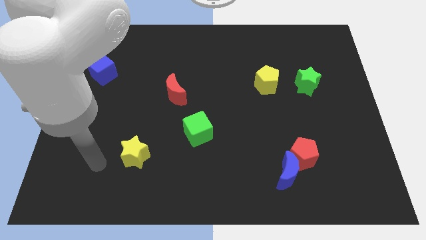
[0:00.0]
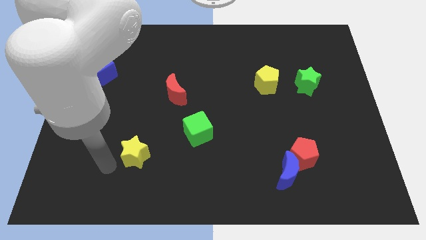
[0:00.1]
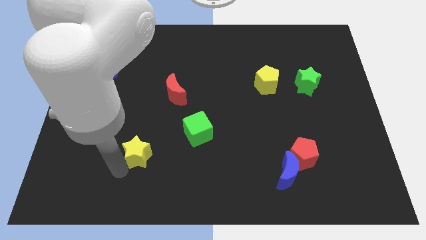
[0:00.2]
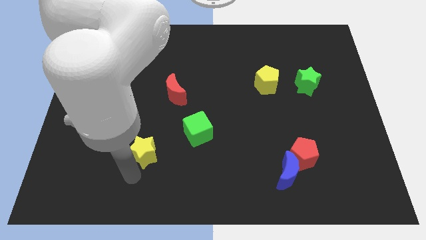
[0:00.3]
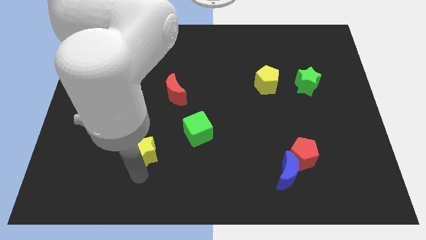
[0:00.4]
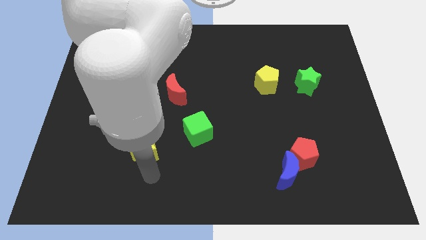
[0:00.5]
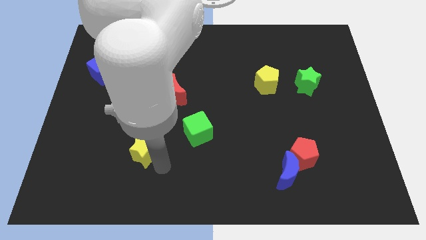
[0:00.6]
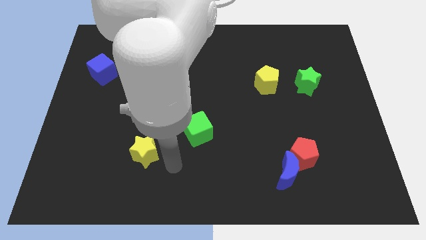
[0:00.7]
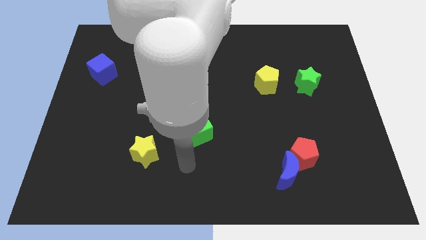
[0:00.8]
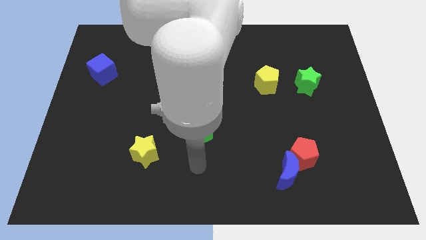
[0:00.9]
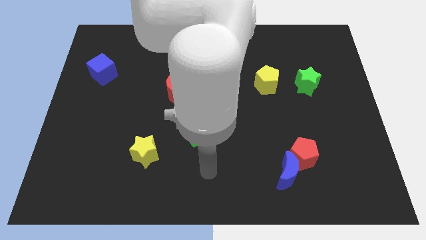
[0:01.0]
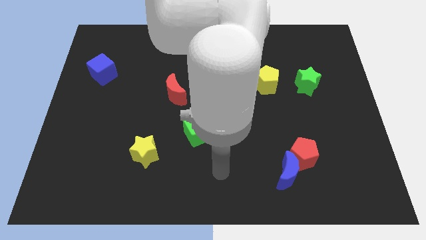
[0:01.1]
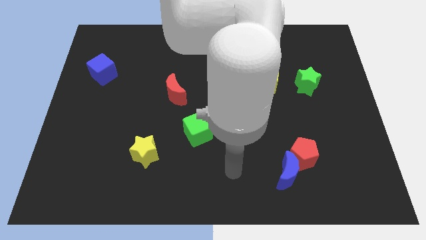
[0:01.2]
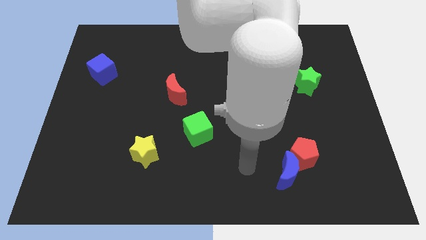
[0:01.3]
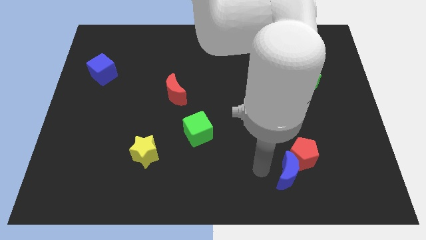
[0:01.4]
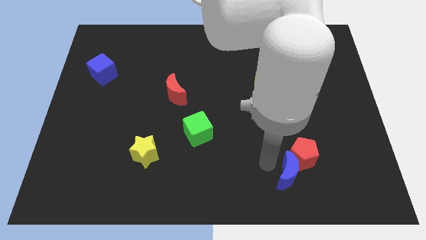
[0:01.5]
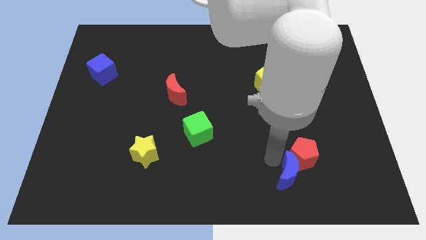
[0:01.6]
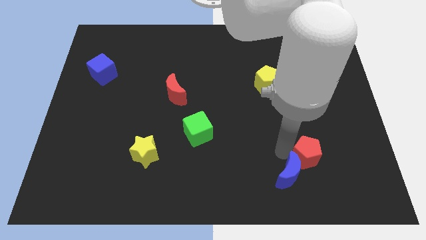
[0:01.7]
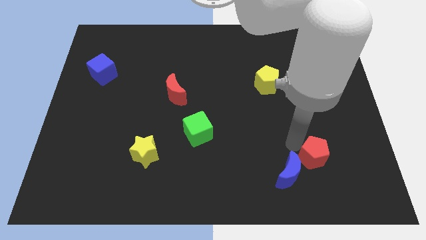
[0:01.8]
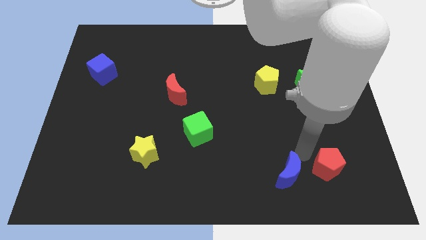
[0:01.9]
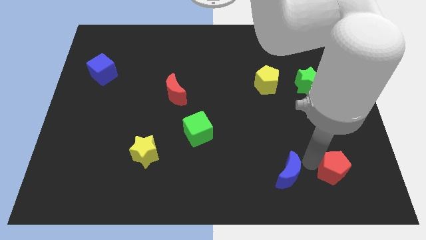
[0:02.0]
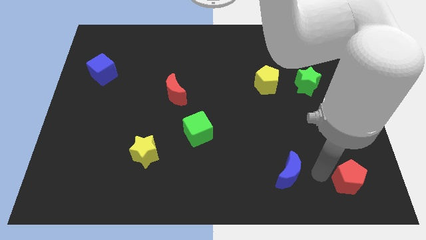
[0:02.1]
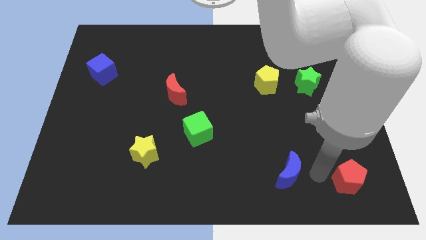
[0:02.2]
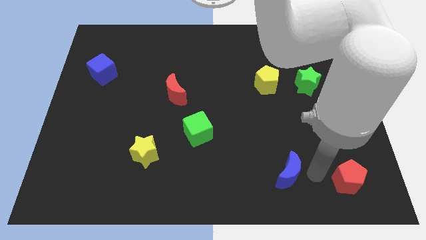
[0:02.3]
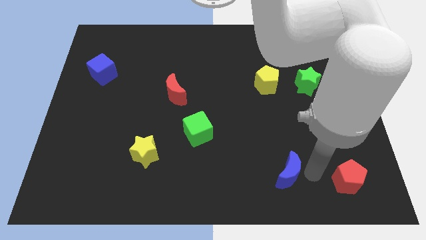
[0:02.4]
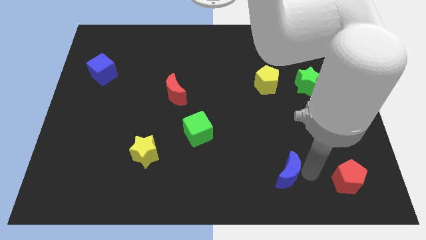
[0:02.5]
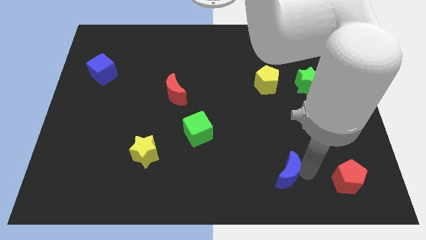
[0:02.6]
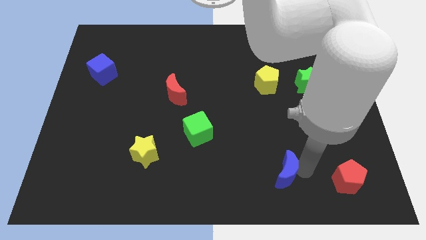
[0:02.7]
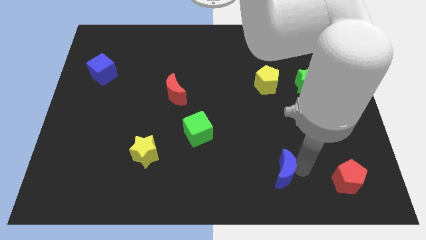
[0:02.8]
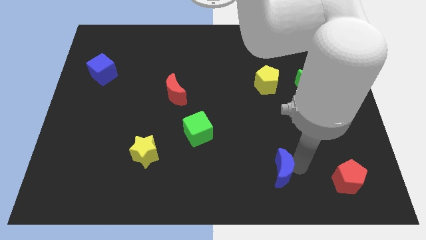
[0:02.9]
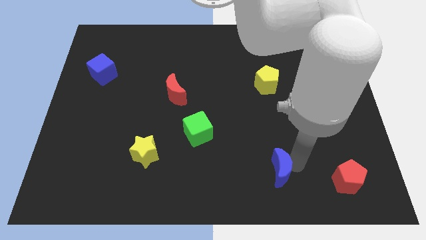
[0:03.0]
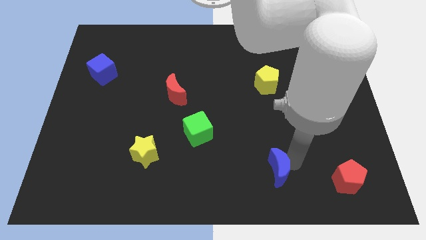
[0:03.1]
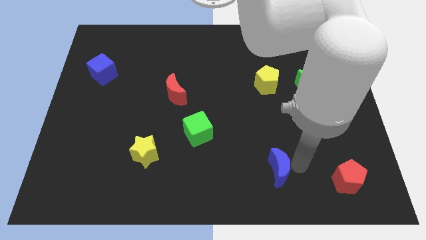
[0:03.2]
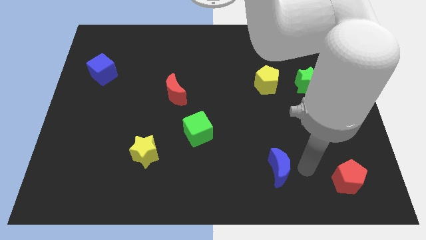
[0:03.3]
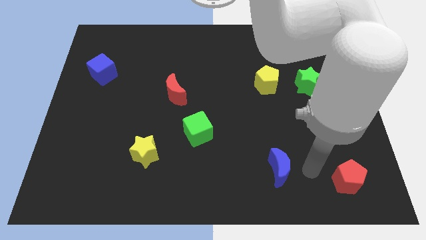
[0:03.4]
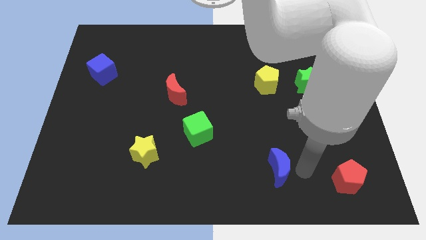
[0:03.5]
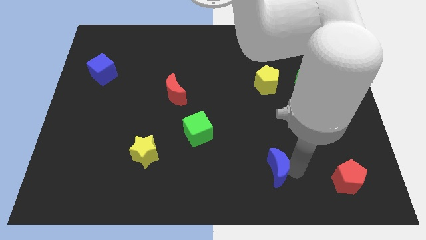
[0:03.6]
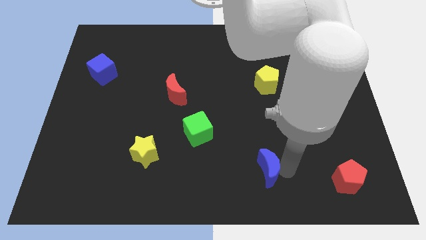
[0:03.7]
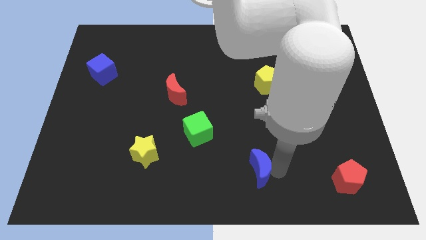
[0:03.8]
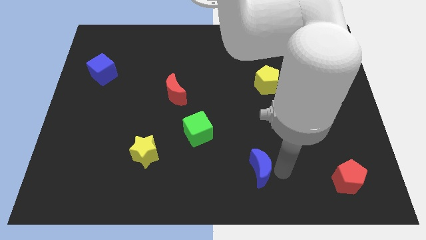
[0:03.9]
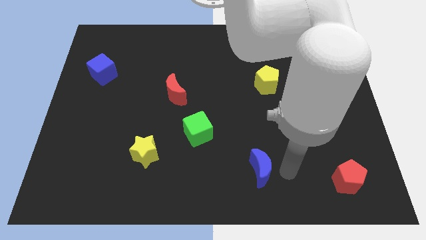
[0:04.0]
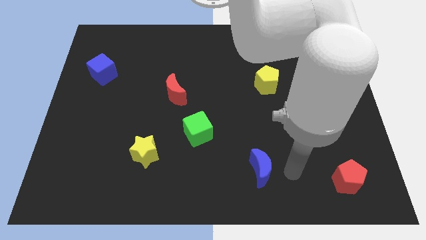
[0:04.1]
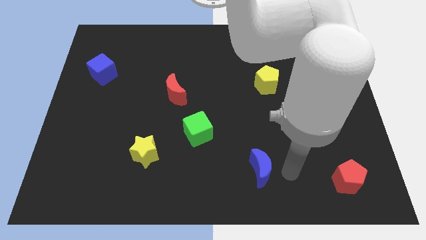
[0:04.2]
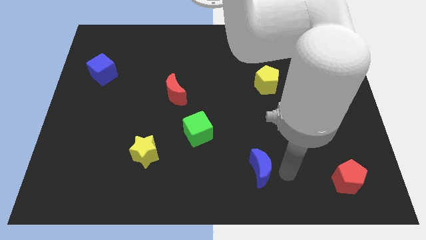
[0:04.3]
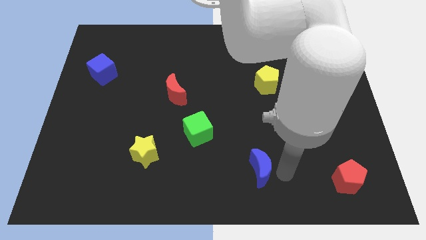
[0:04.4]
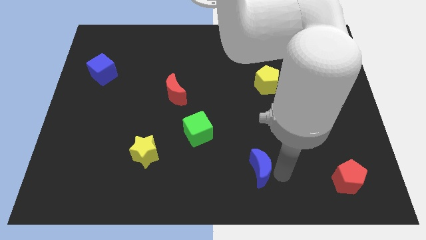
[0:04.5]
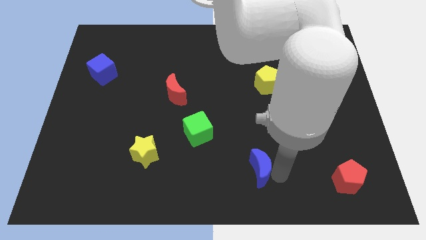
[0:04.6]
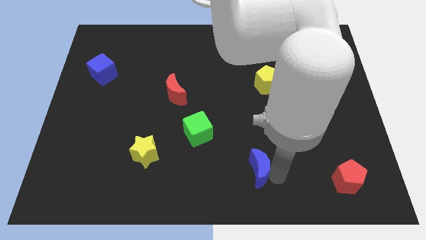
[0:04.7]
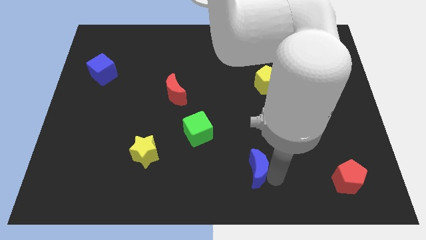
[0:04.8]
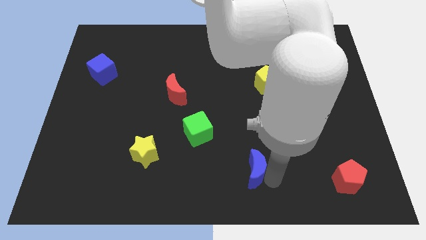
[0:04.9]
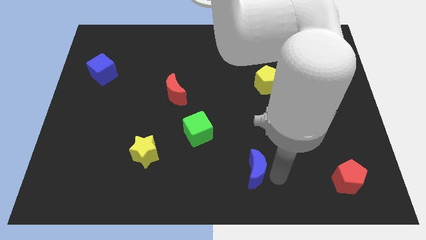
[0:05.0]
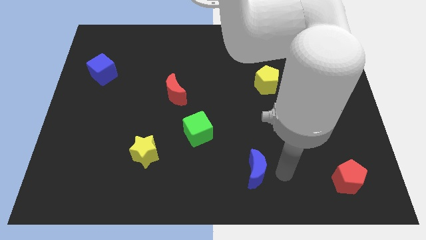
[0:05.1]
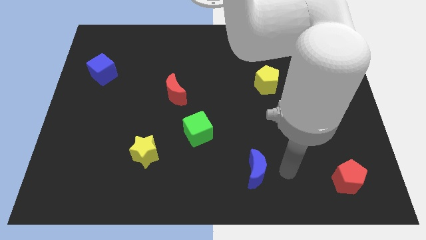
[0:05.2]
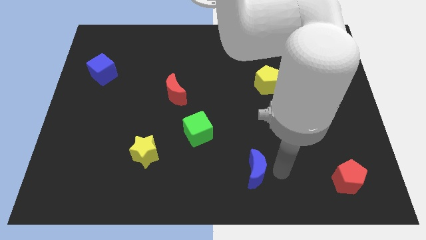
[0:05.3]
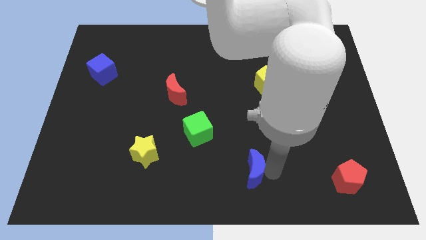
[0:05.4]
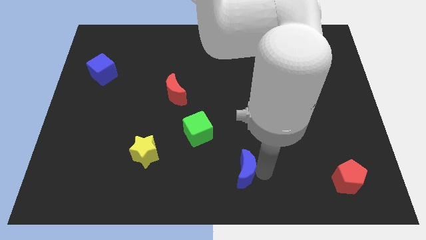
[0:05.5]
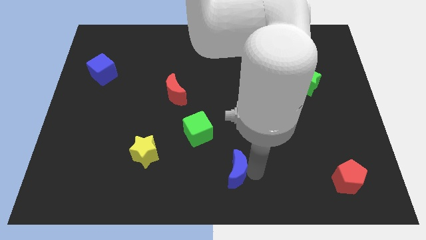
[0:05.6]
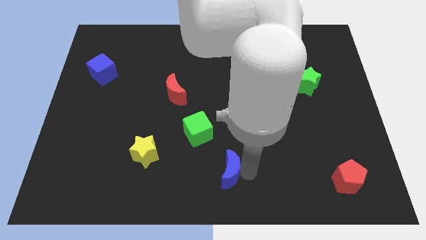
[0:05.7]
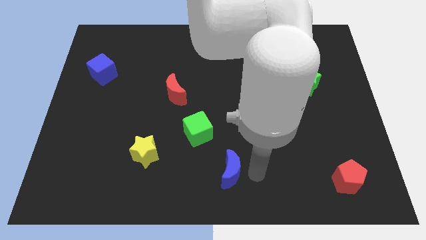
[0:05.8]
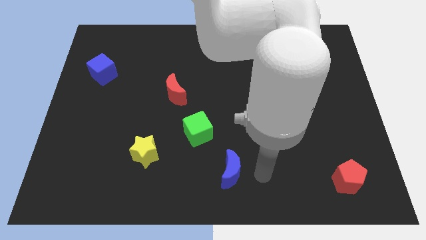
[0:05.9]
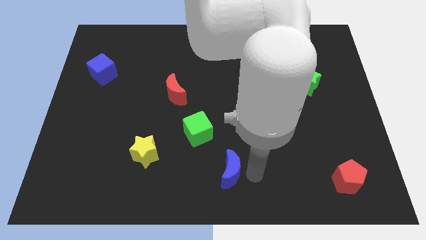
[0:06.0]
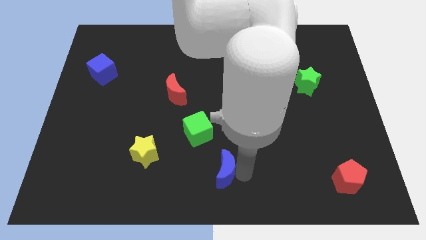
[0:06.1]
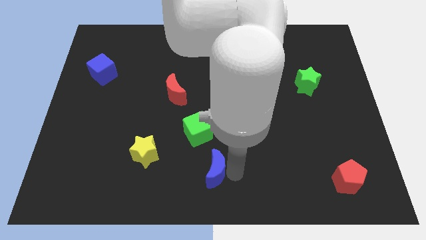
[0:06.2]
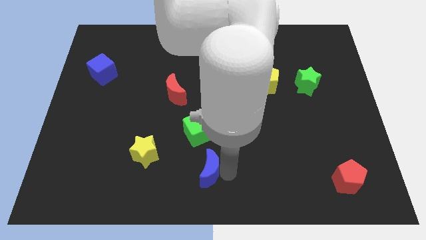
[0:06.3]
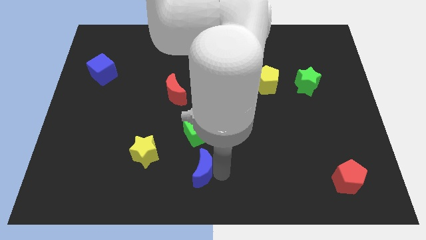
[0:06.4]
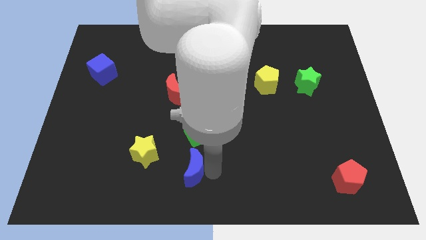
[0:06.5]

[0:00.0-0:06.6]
put the blue moon to the bottom right side of the yellow star

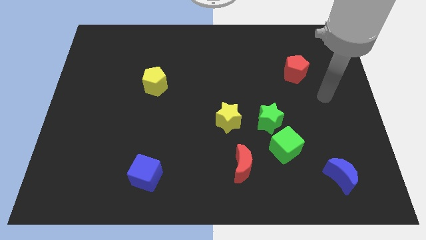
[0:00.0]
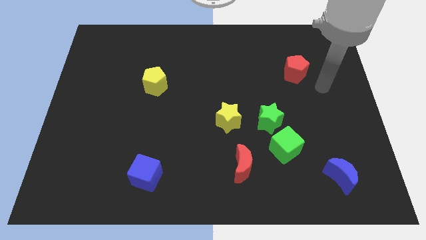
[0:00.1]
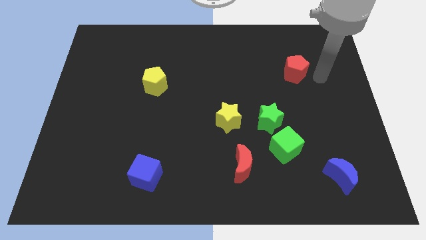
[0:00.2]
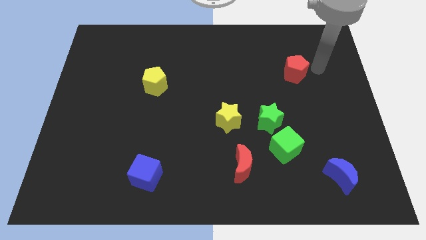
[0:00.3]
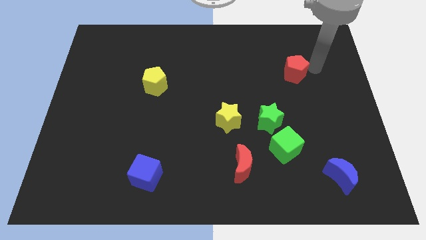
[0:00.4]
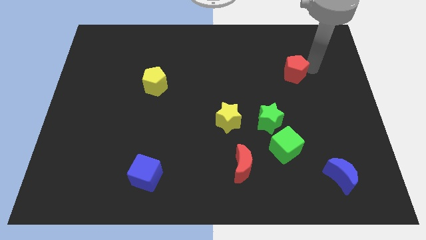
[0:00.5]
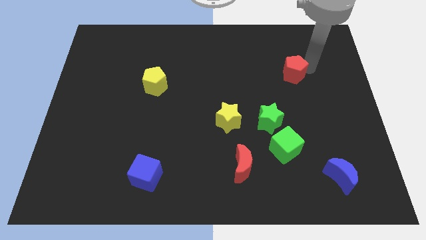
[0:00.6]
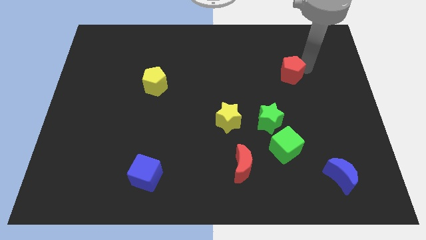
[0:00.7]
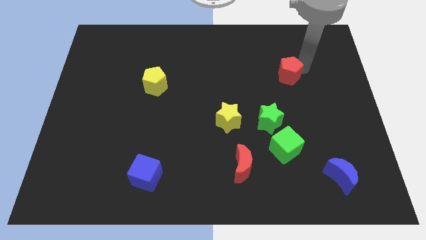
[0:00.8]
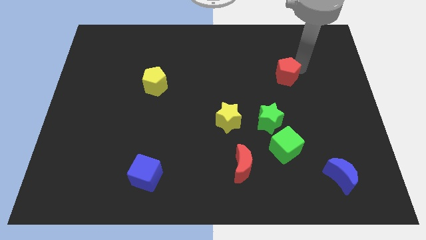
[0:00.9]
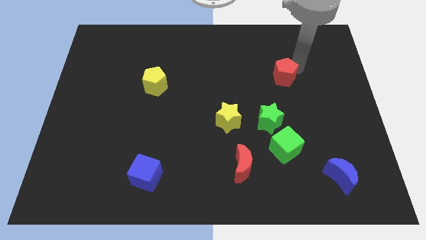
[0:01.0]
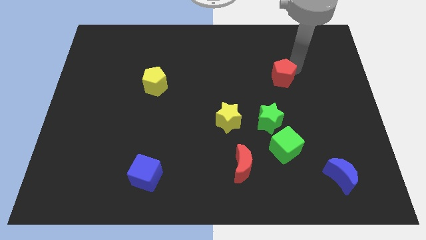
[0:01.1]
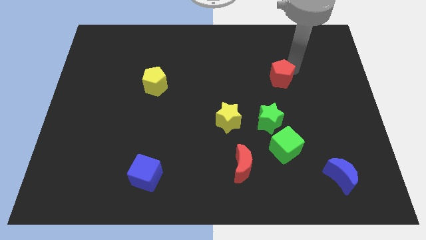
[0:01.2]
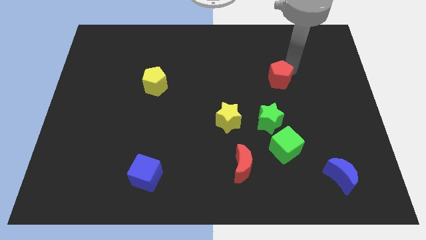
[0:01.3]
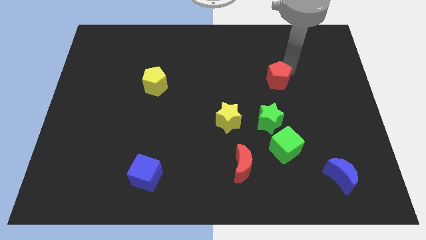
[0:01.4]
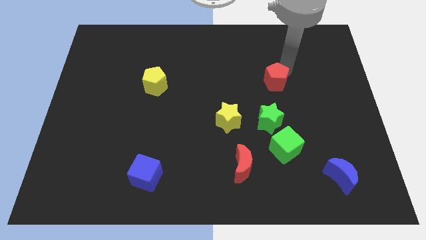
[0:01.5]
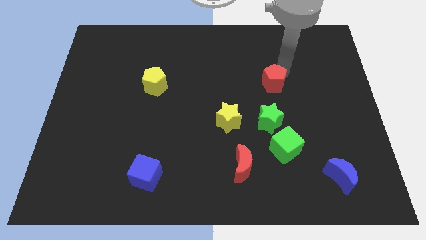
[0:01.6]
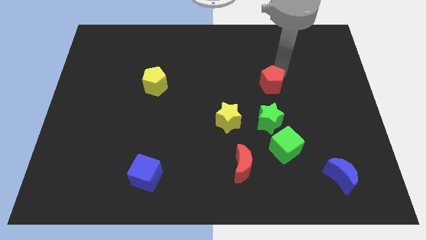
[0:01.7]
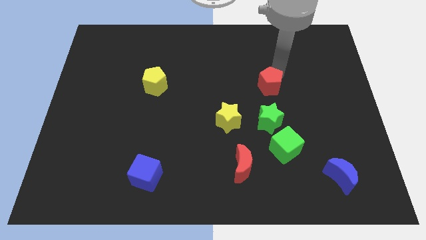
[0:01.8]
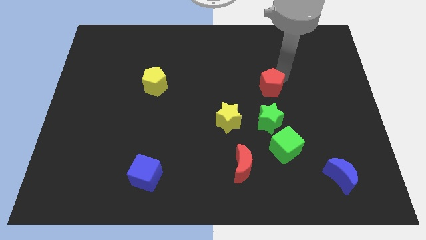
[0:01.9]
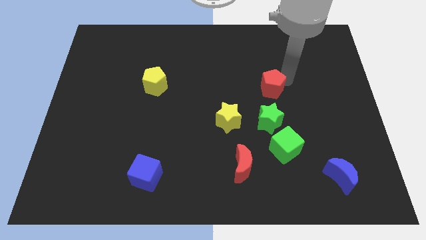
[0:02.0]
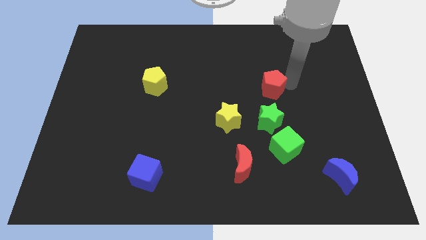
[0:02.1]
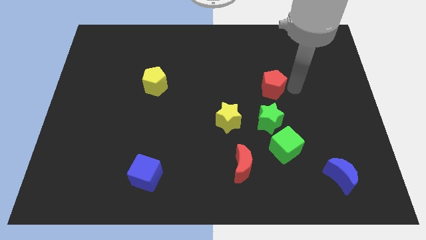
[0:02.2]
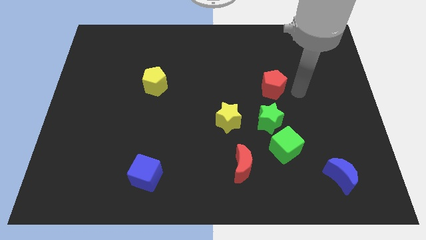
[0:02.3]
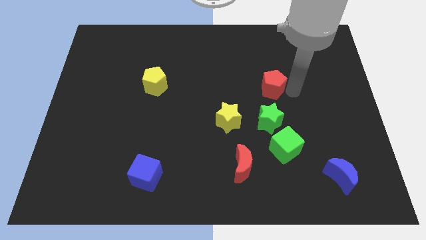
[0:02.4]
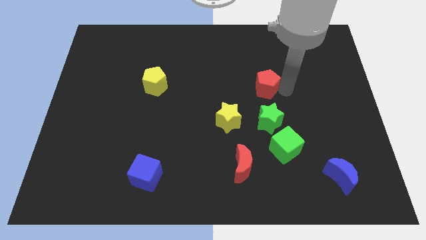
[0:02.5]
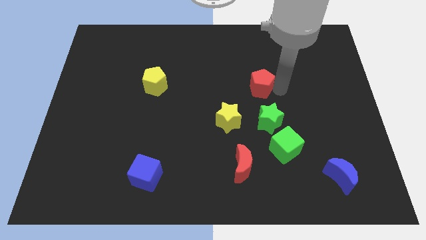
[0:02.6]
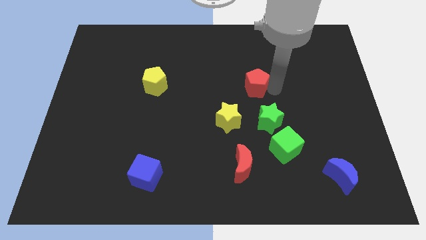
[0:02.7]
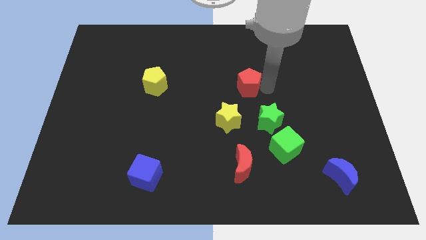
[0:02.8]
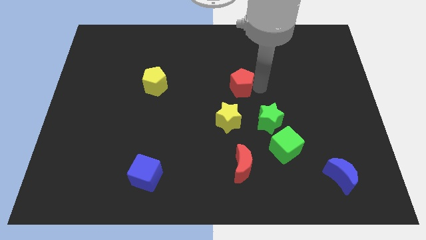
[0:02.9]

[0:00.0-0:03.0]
put the red pentagon above the yellow star
